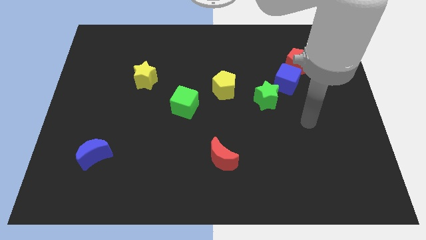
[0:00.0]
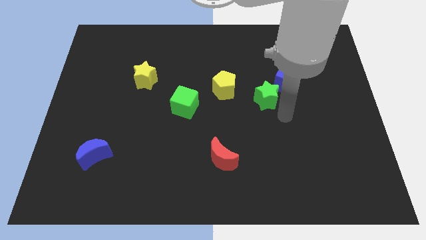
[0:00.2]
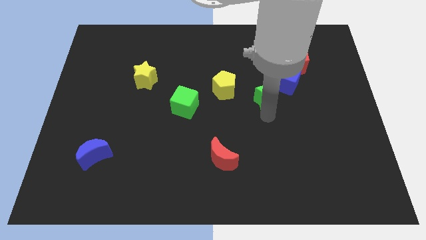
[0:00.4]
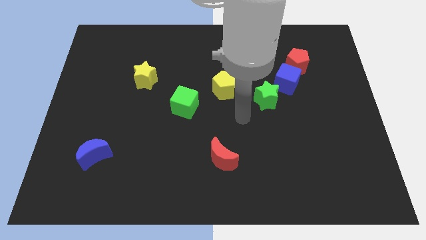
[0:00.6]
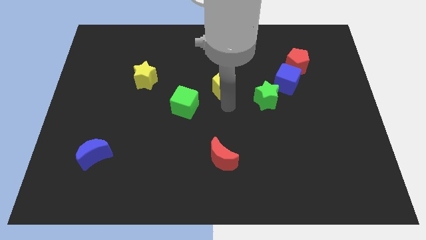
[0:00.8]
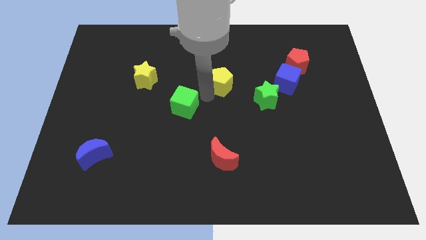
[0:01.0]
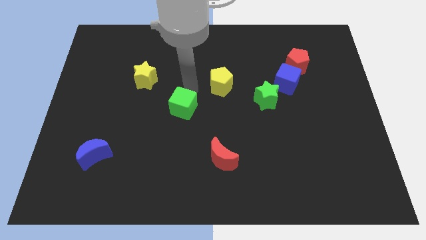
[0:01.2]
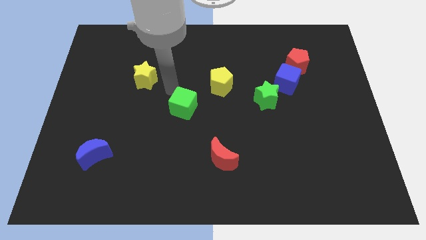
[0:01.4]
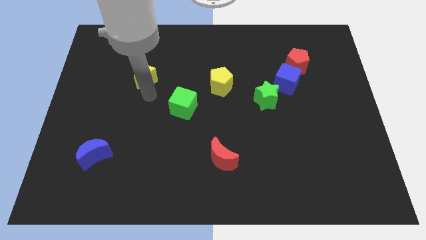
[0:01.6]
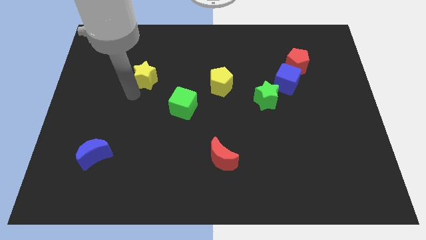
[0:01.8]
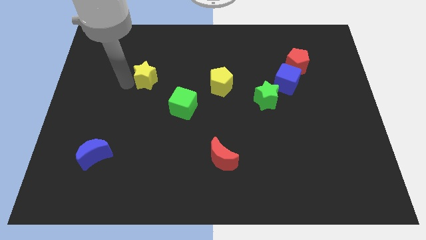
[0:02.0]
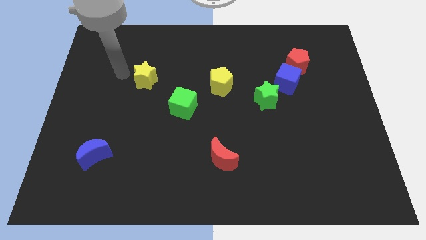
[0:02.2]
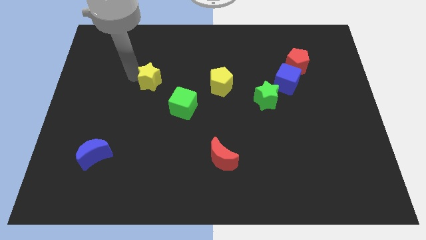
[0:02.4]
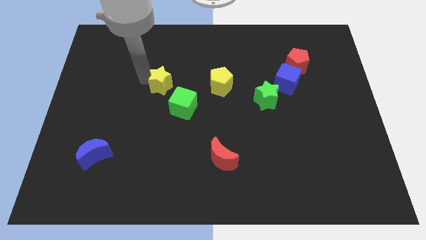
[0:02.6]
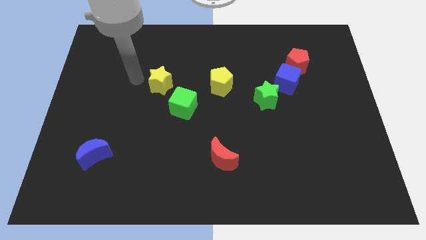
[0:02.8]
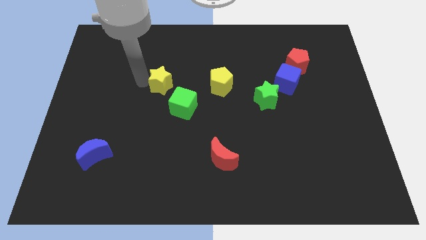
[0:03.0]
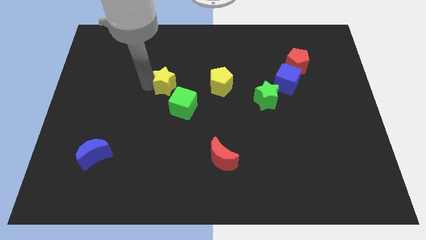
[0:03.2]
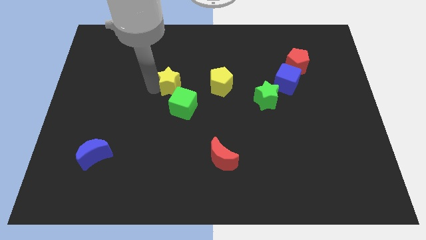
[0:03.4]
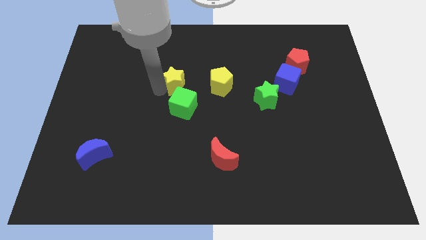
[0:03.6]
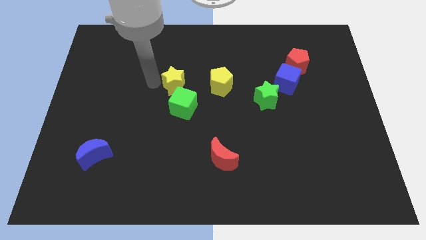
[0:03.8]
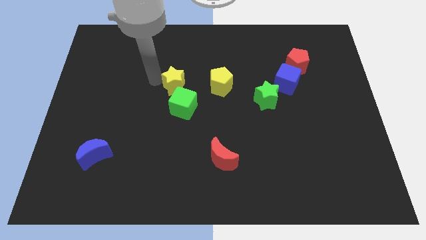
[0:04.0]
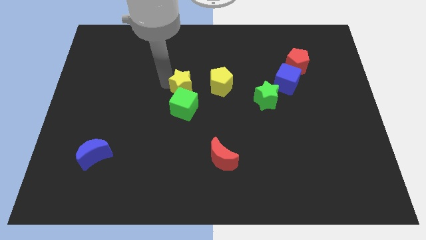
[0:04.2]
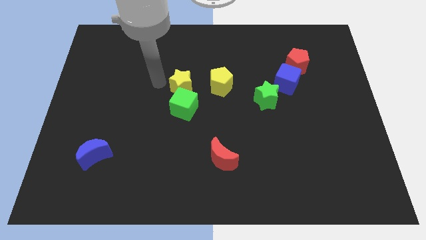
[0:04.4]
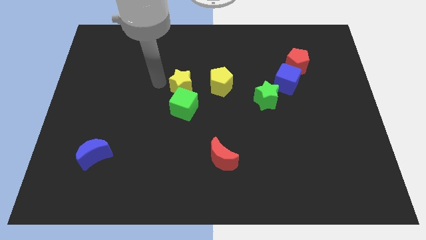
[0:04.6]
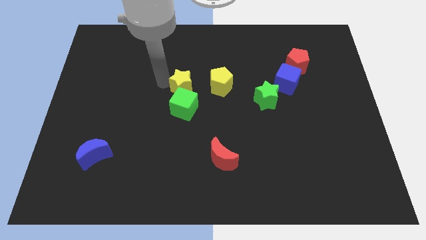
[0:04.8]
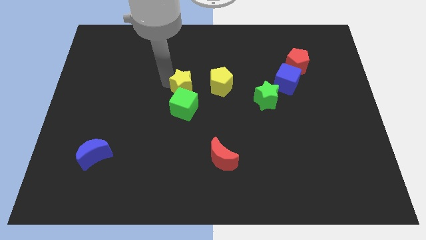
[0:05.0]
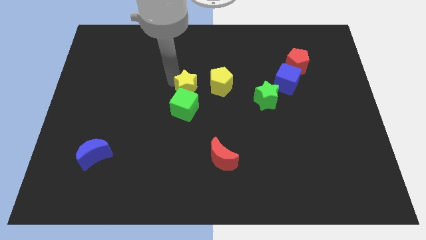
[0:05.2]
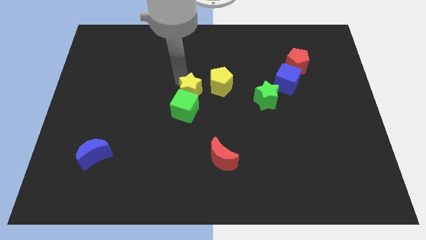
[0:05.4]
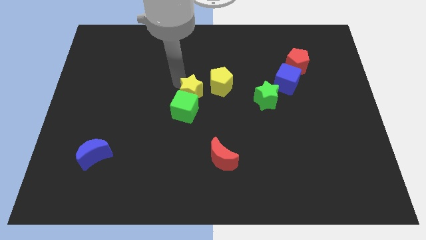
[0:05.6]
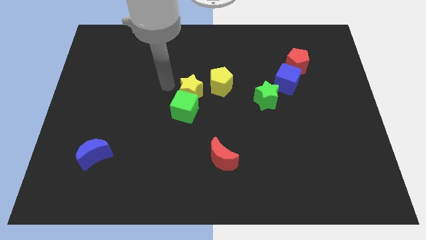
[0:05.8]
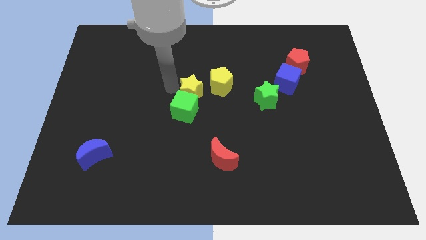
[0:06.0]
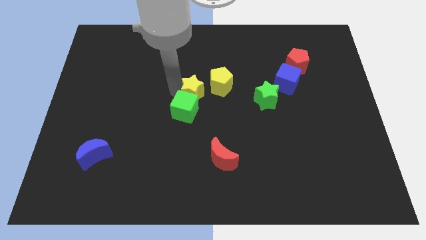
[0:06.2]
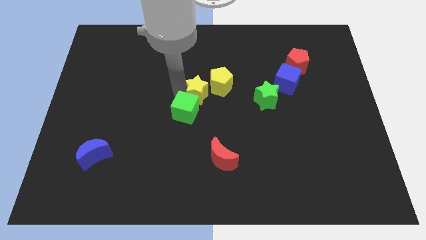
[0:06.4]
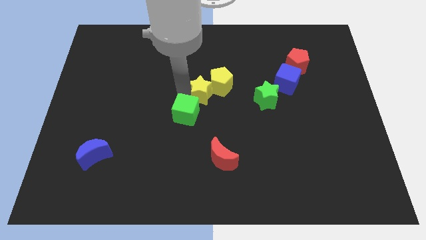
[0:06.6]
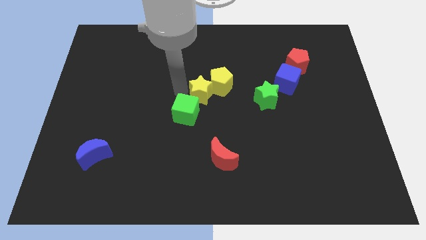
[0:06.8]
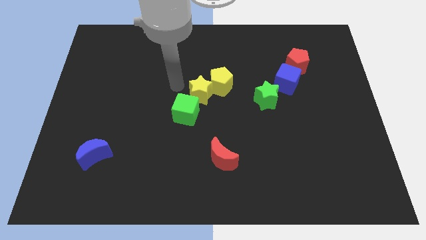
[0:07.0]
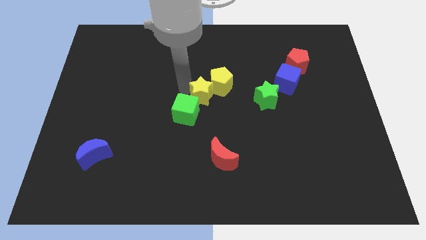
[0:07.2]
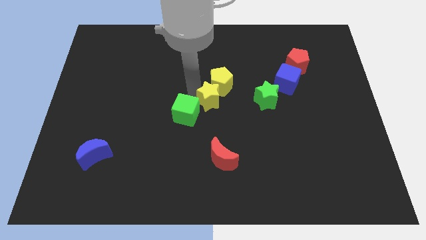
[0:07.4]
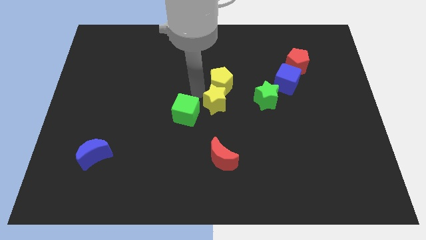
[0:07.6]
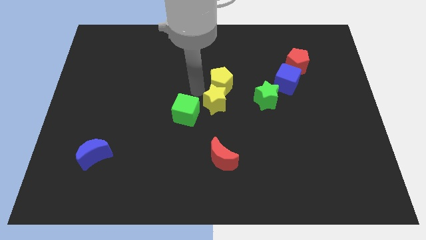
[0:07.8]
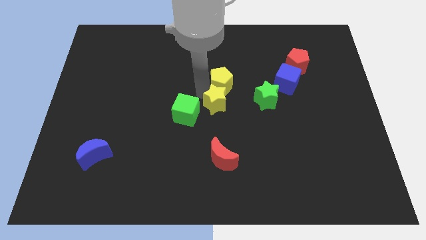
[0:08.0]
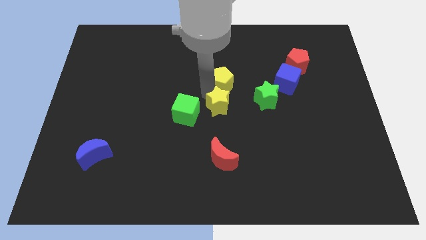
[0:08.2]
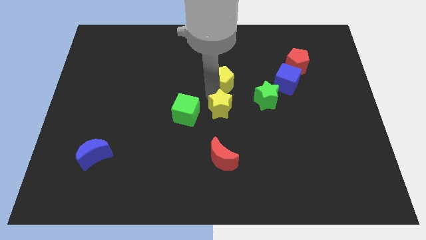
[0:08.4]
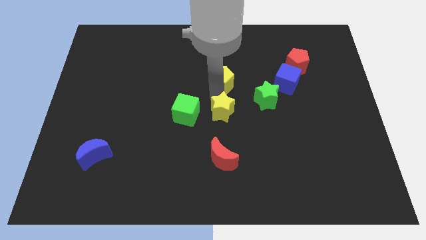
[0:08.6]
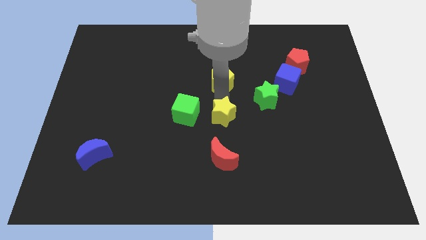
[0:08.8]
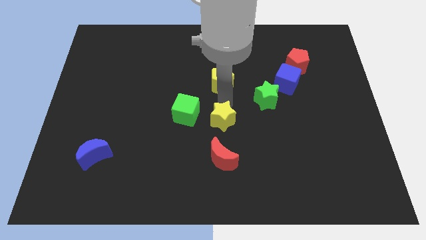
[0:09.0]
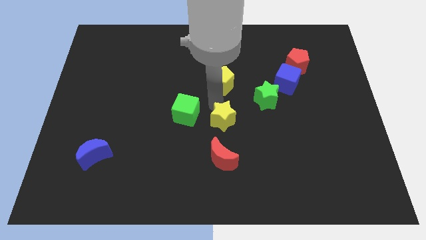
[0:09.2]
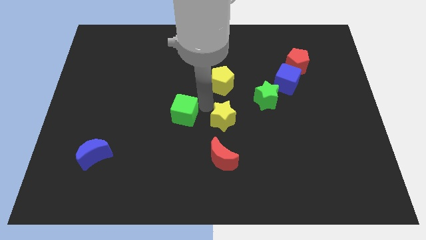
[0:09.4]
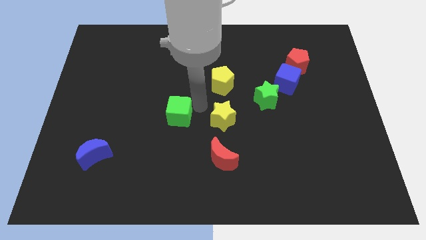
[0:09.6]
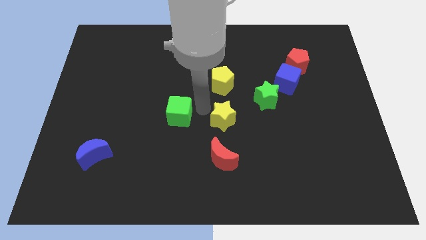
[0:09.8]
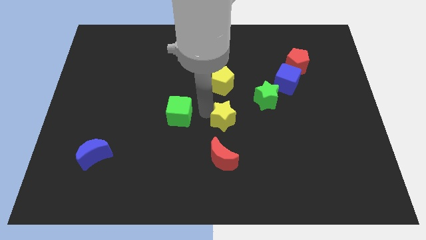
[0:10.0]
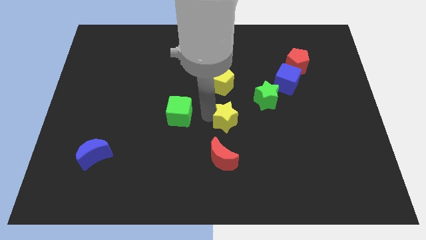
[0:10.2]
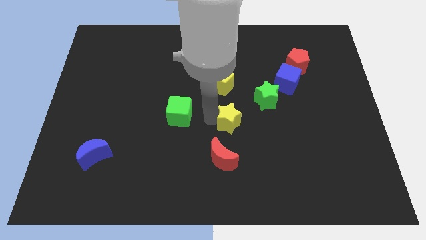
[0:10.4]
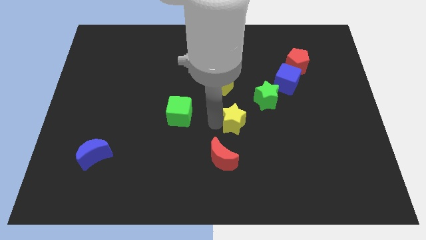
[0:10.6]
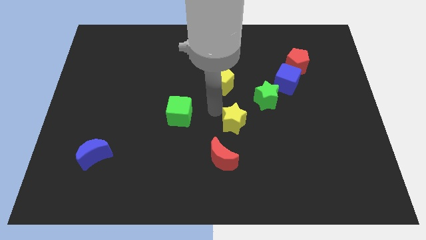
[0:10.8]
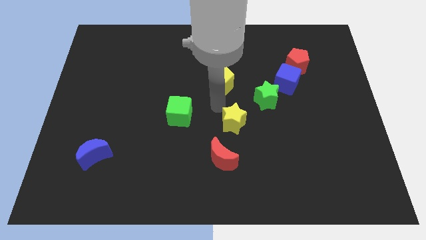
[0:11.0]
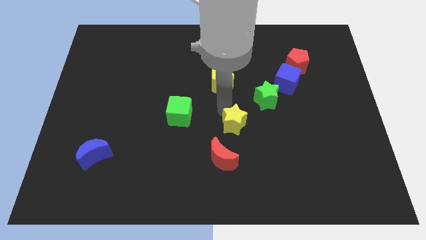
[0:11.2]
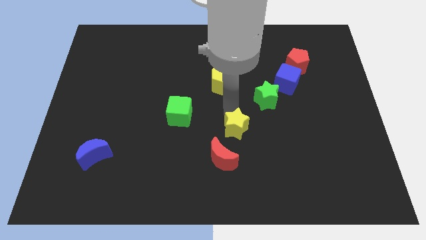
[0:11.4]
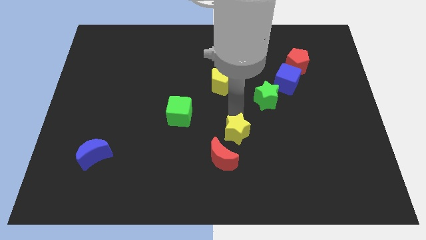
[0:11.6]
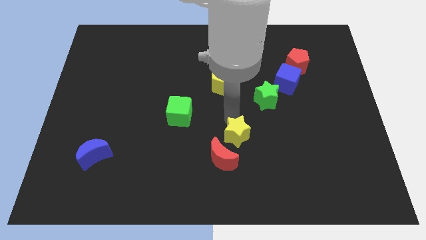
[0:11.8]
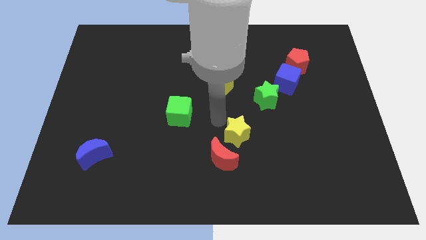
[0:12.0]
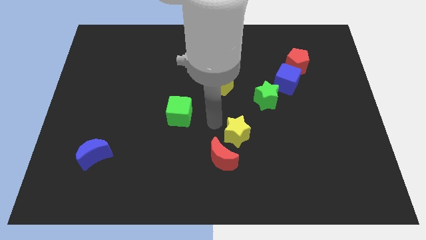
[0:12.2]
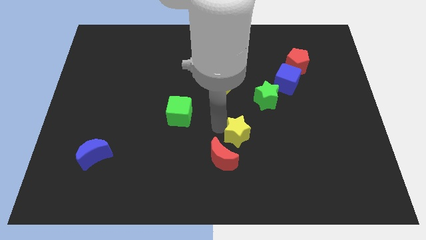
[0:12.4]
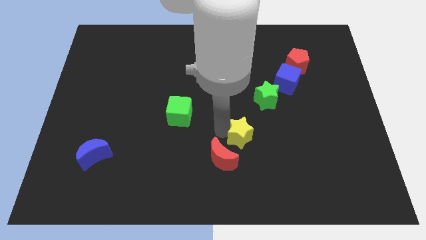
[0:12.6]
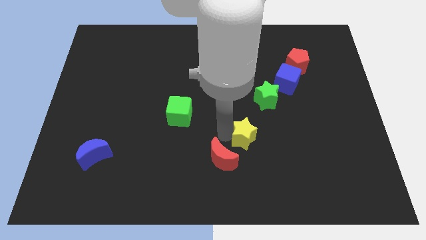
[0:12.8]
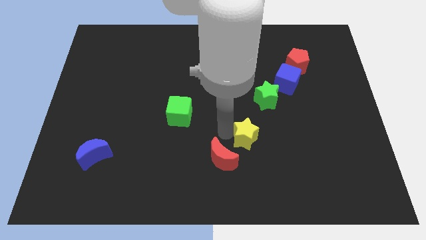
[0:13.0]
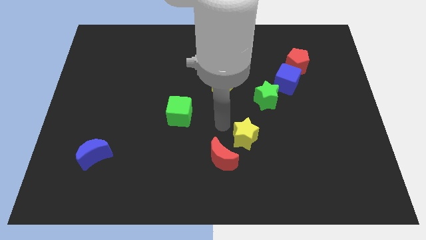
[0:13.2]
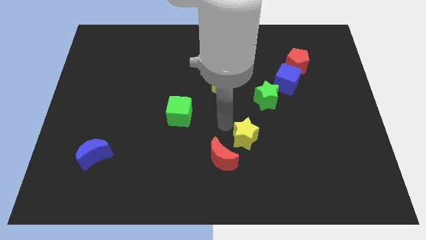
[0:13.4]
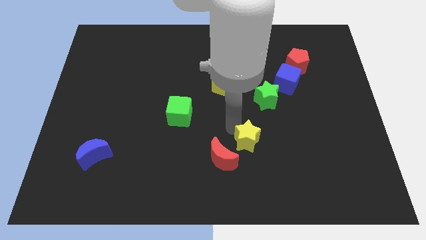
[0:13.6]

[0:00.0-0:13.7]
push the yellow star right of the red moon
